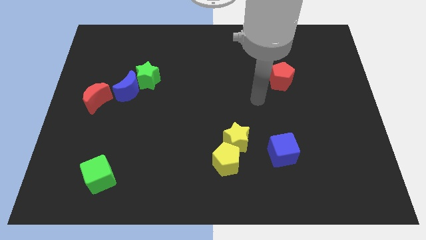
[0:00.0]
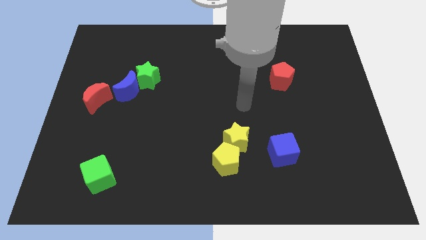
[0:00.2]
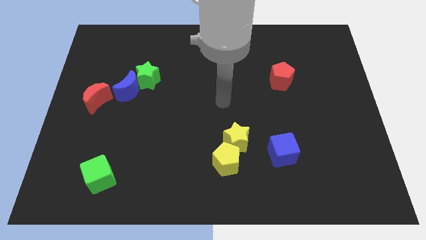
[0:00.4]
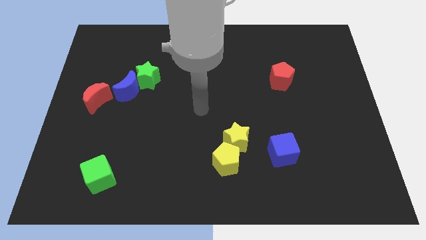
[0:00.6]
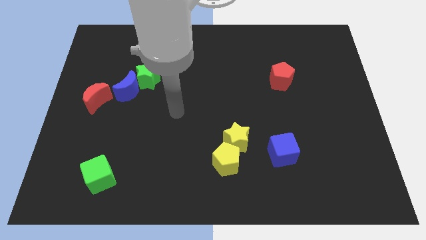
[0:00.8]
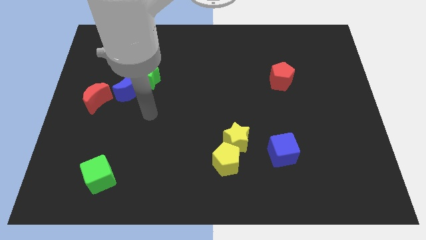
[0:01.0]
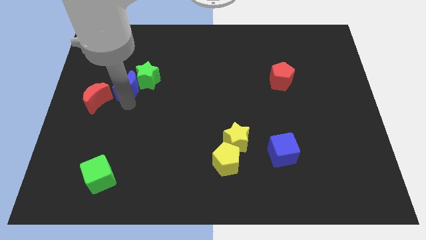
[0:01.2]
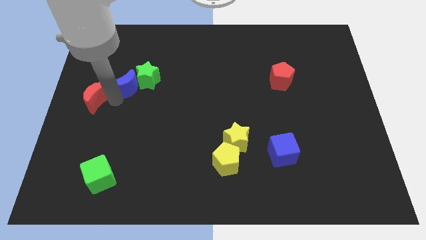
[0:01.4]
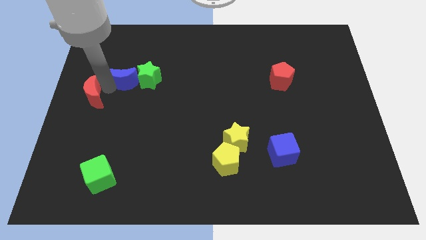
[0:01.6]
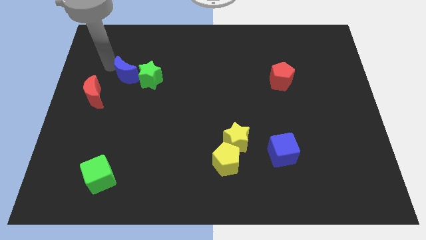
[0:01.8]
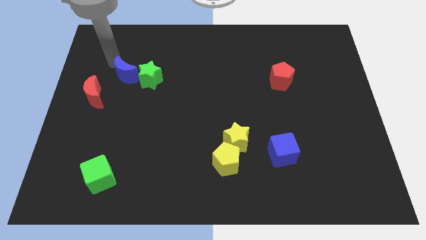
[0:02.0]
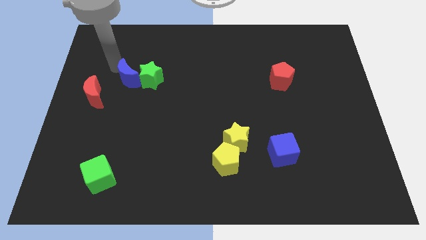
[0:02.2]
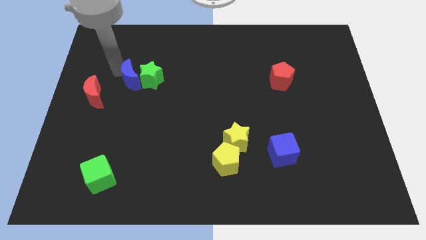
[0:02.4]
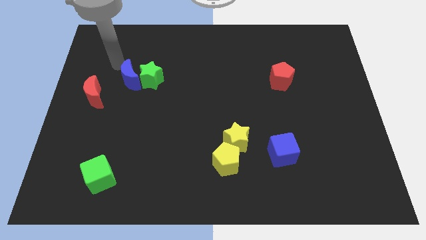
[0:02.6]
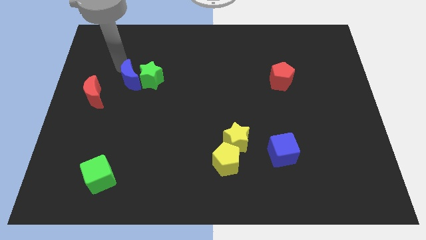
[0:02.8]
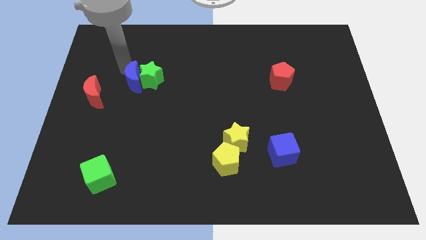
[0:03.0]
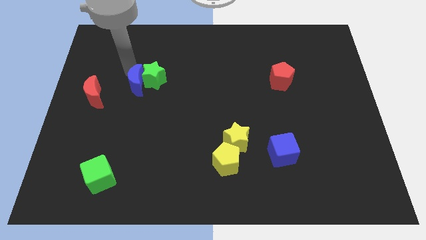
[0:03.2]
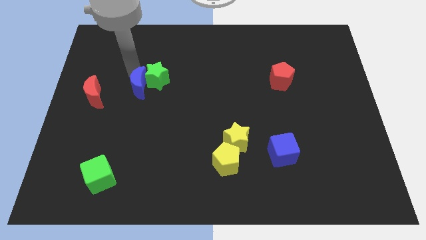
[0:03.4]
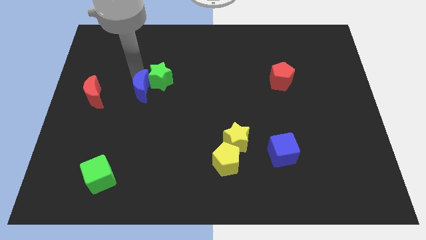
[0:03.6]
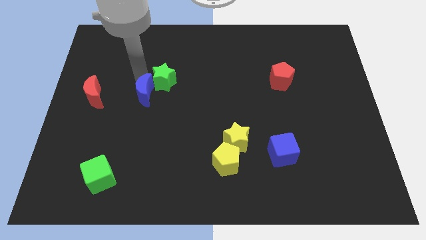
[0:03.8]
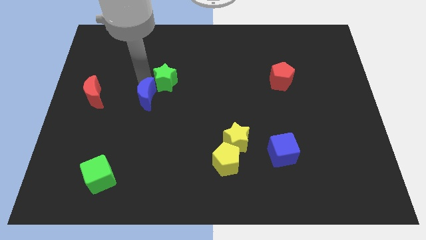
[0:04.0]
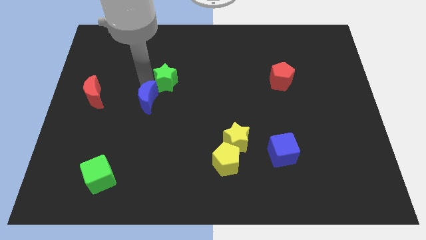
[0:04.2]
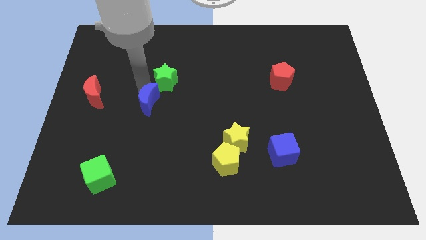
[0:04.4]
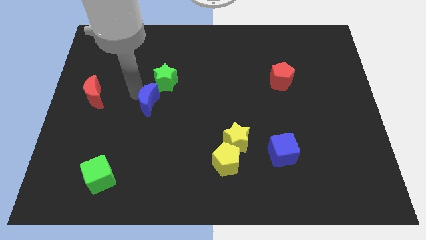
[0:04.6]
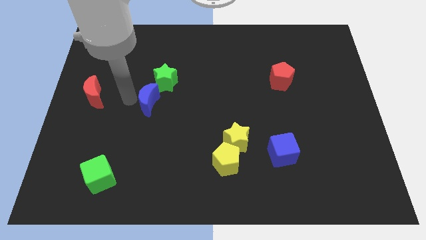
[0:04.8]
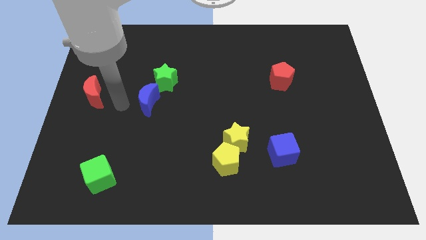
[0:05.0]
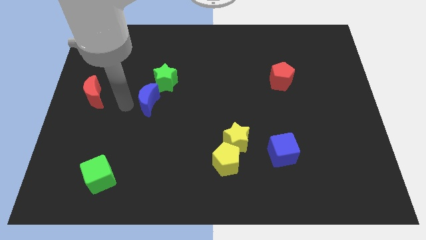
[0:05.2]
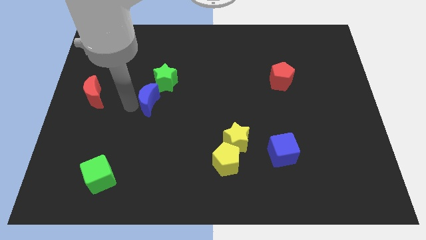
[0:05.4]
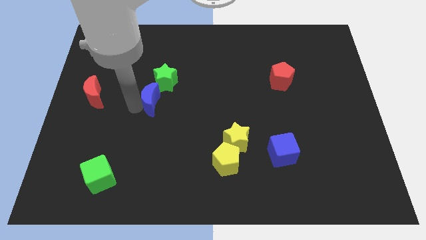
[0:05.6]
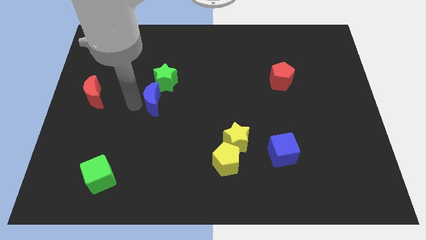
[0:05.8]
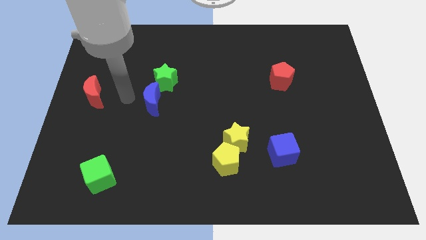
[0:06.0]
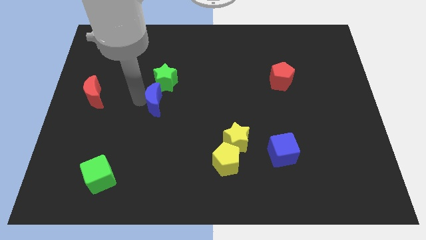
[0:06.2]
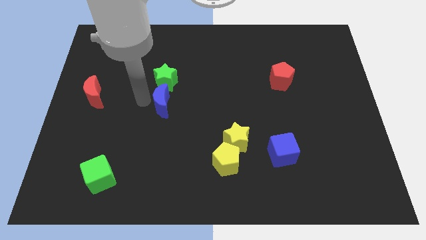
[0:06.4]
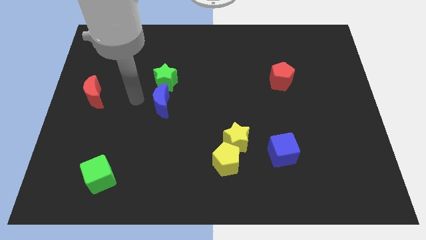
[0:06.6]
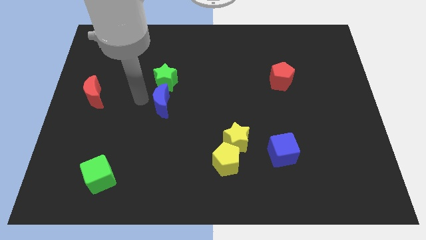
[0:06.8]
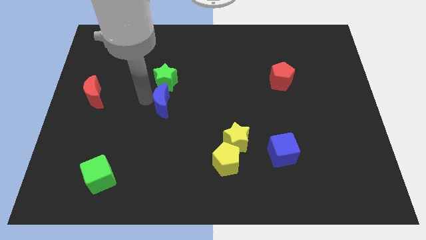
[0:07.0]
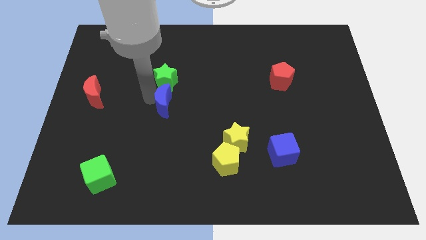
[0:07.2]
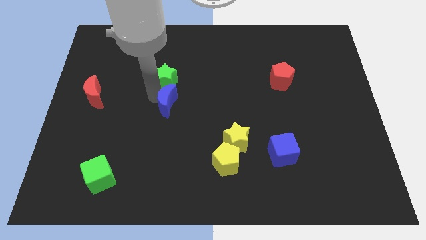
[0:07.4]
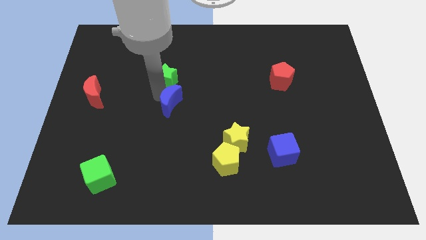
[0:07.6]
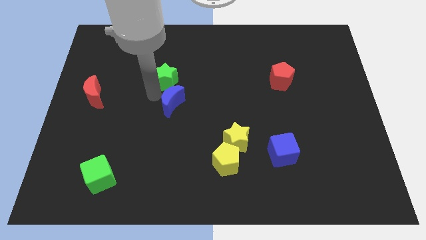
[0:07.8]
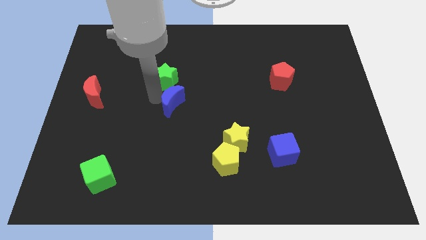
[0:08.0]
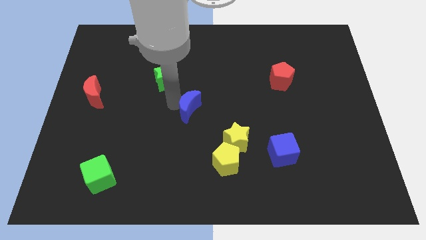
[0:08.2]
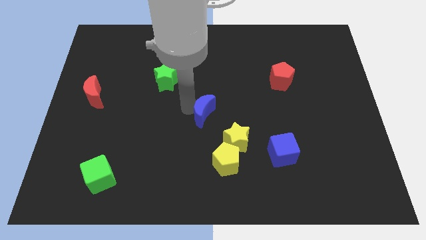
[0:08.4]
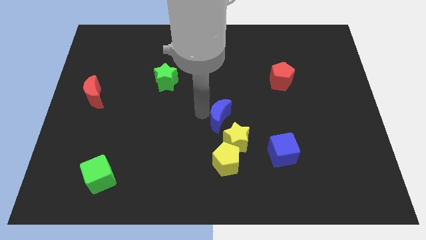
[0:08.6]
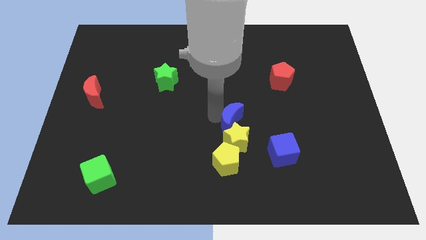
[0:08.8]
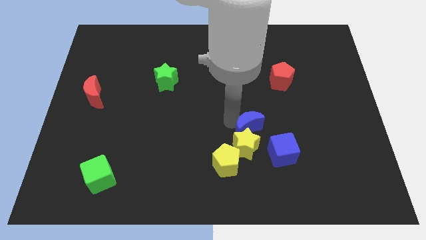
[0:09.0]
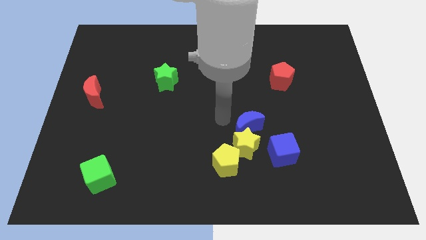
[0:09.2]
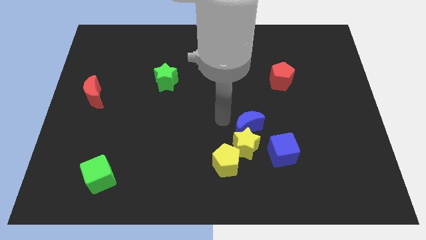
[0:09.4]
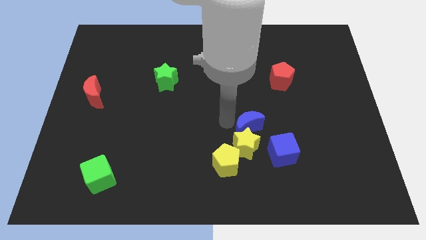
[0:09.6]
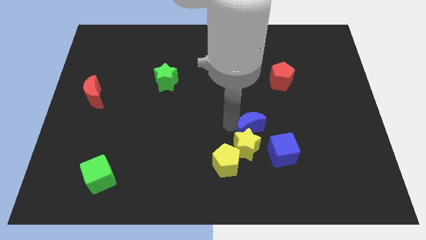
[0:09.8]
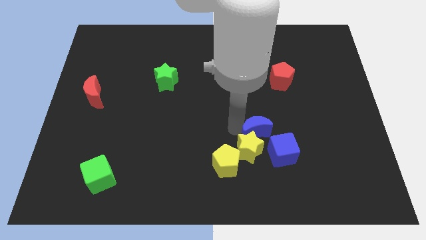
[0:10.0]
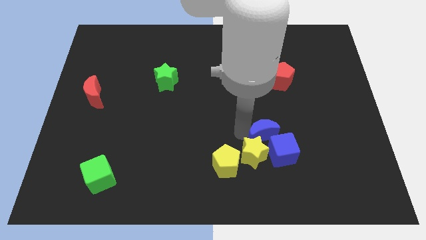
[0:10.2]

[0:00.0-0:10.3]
push the blue moon next to the blue cube

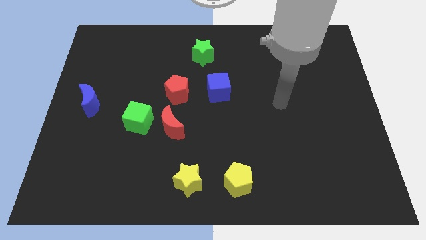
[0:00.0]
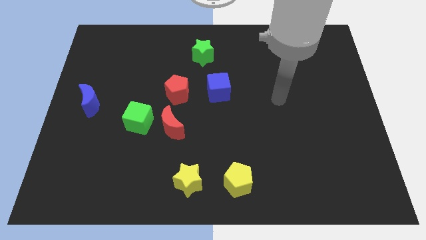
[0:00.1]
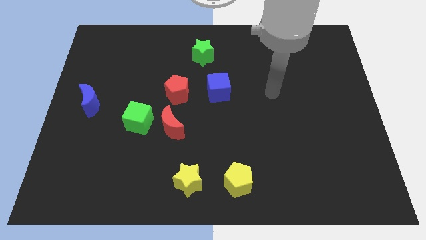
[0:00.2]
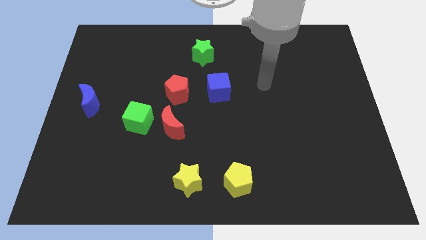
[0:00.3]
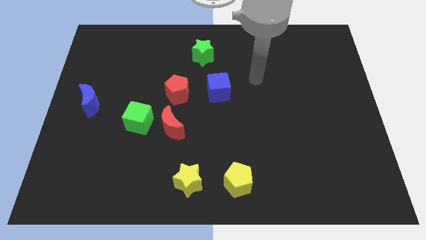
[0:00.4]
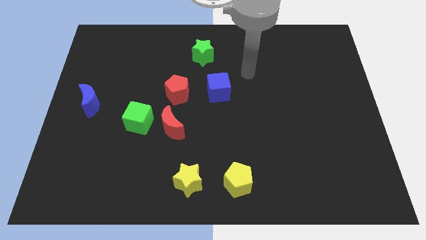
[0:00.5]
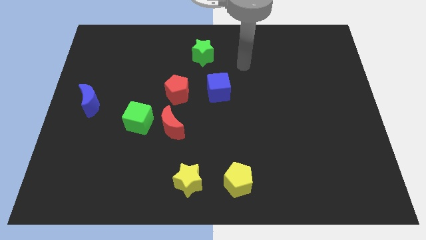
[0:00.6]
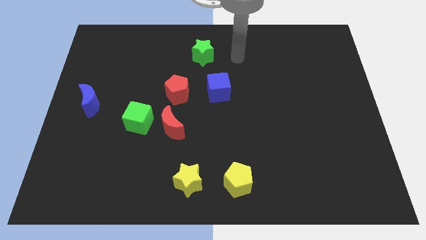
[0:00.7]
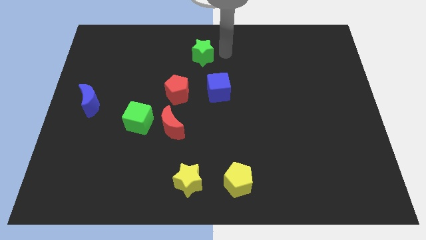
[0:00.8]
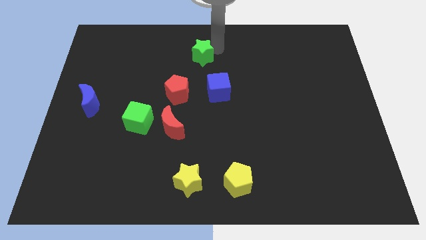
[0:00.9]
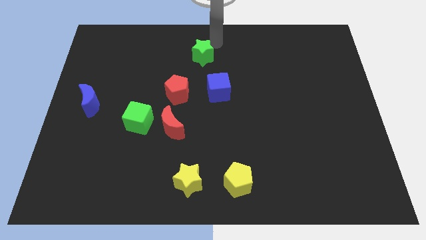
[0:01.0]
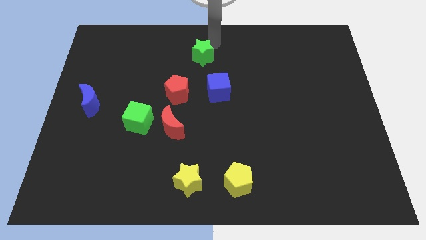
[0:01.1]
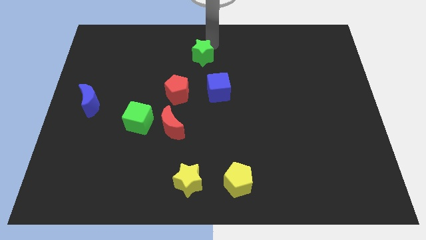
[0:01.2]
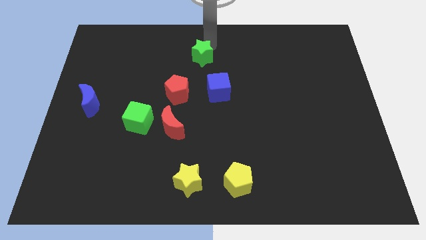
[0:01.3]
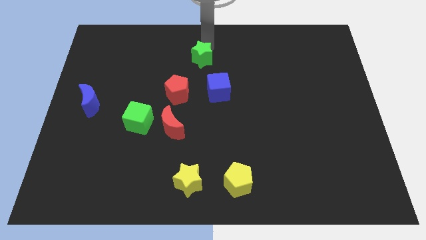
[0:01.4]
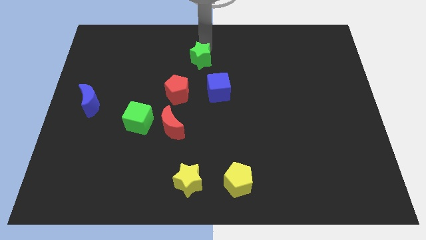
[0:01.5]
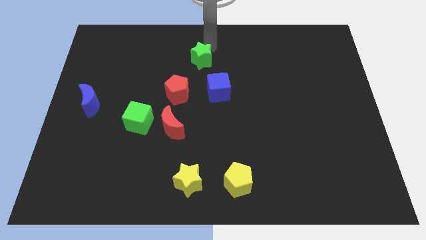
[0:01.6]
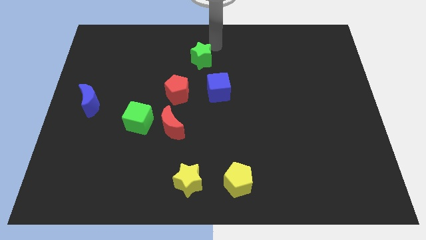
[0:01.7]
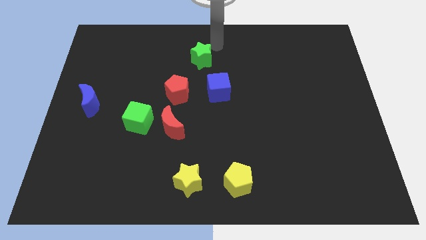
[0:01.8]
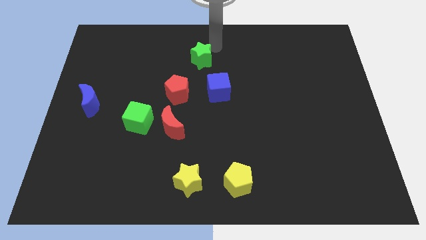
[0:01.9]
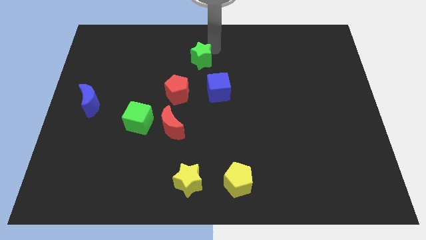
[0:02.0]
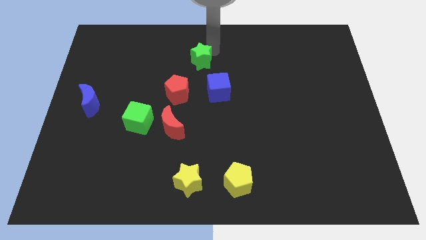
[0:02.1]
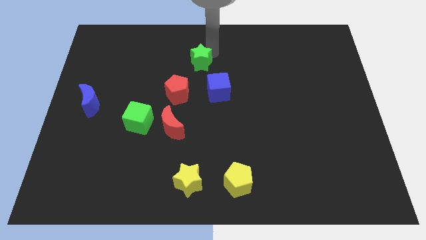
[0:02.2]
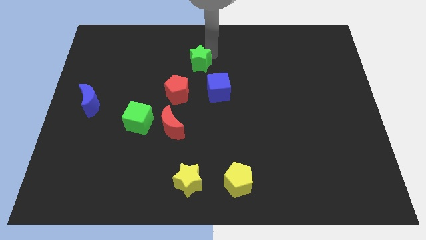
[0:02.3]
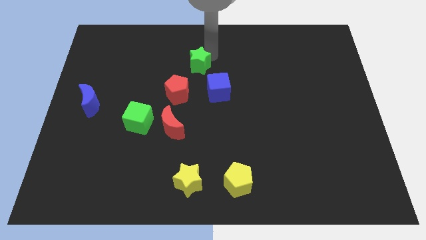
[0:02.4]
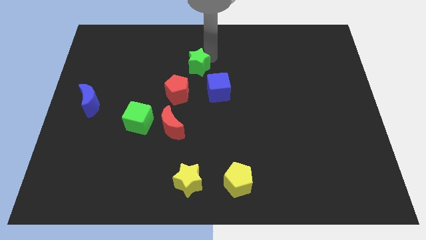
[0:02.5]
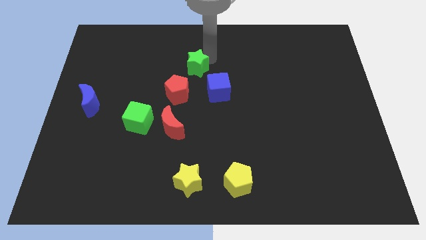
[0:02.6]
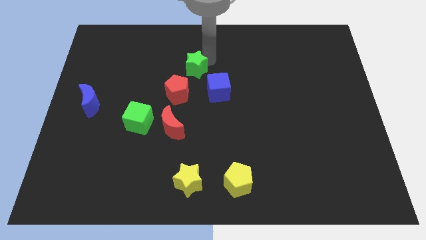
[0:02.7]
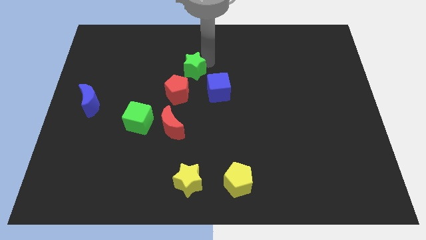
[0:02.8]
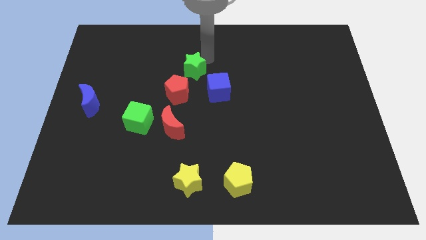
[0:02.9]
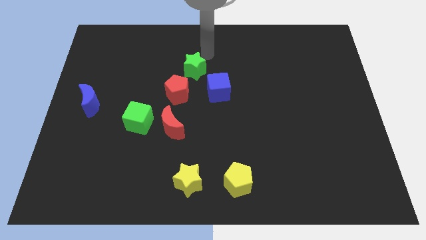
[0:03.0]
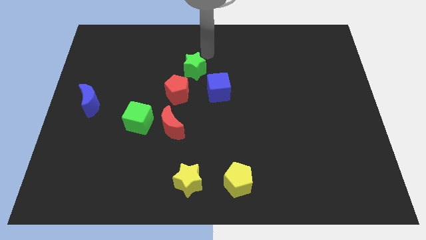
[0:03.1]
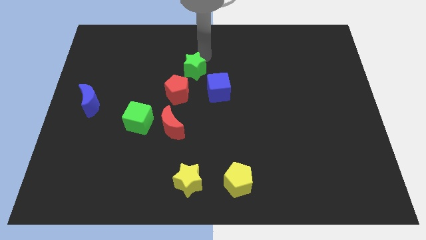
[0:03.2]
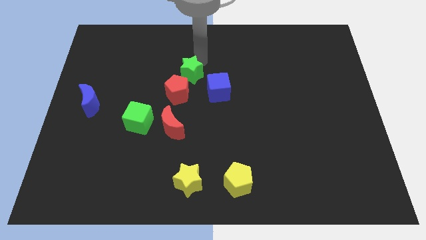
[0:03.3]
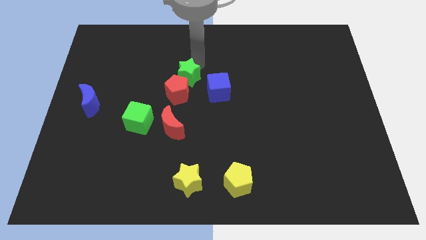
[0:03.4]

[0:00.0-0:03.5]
move the green star next to the red pentagon
